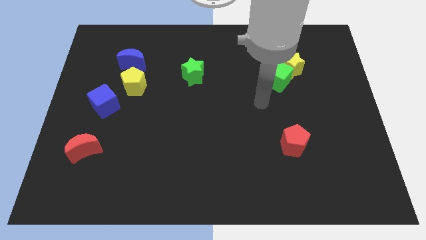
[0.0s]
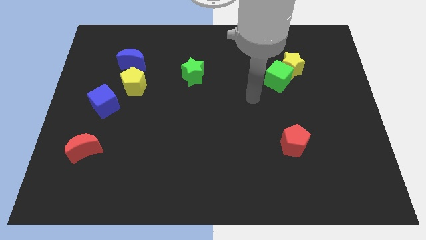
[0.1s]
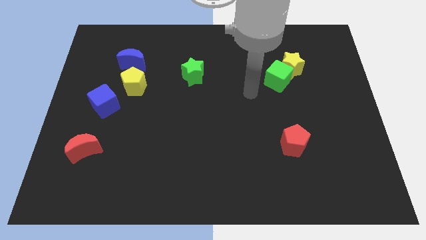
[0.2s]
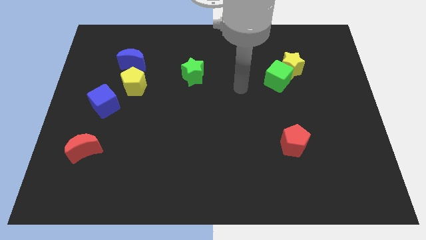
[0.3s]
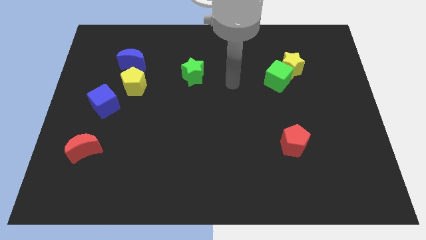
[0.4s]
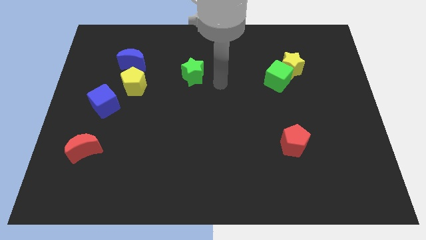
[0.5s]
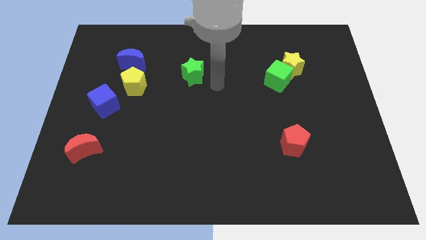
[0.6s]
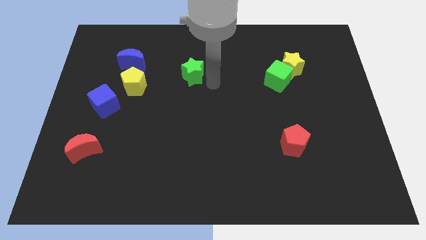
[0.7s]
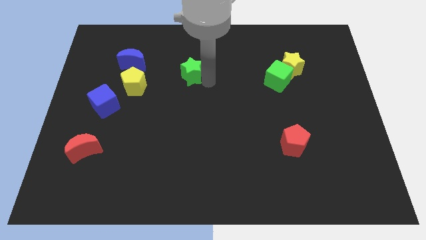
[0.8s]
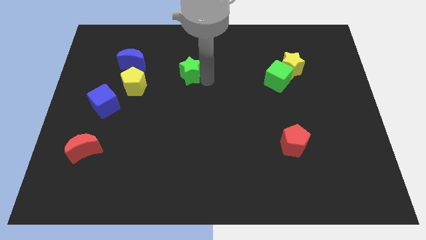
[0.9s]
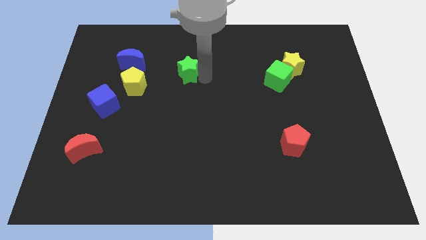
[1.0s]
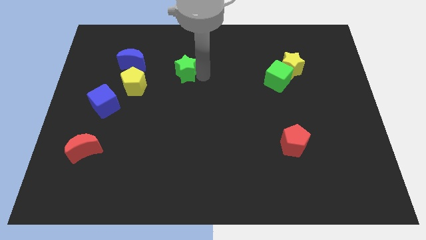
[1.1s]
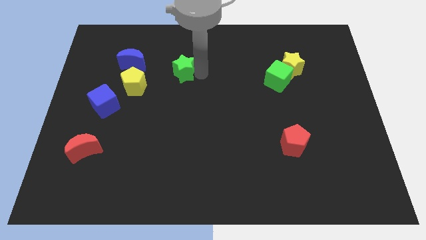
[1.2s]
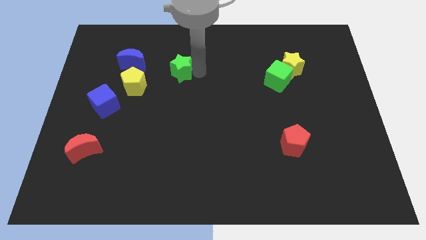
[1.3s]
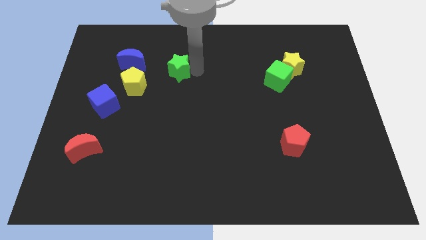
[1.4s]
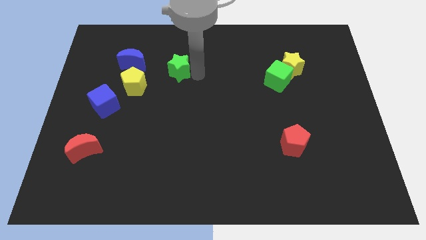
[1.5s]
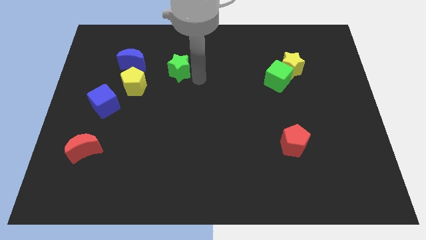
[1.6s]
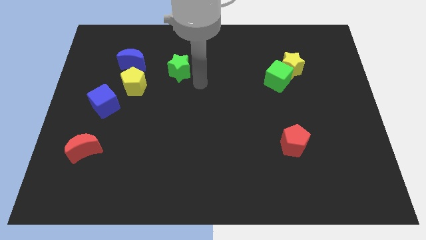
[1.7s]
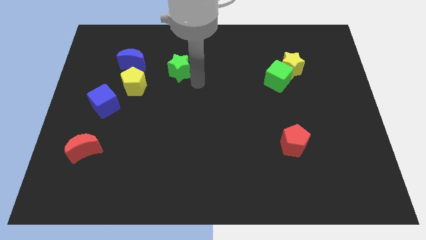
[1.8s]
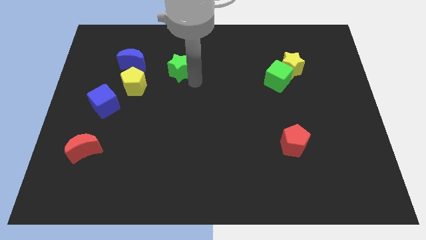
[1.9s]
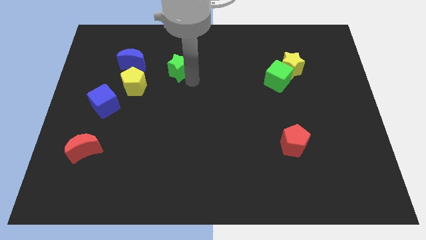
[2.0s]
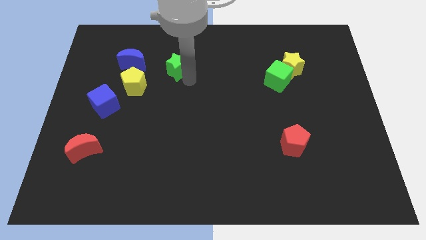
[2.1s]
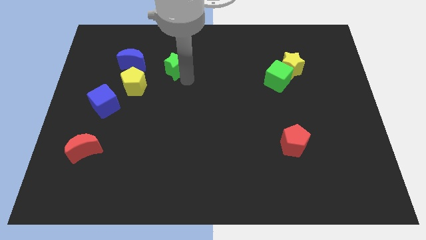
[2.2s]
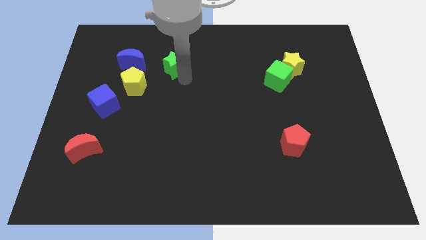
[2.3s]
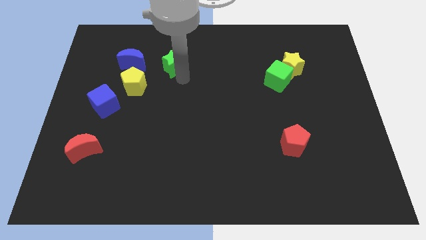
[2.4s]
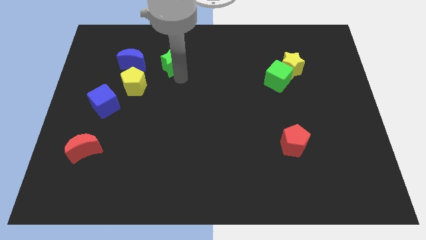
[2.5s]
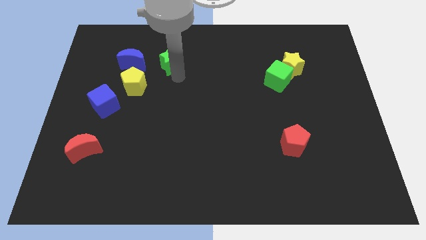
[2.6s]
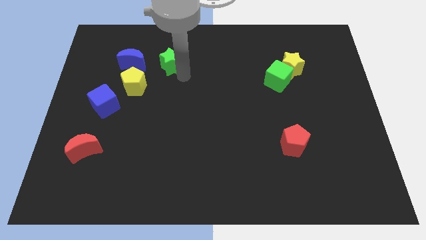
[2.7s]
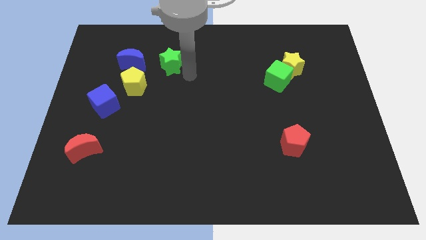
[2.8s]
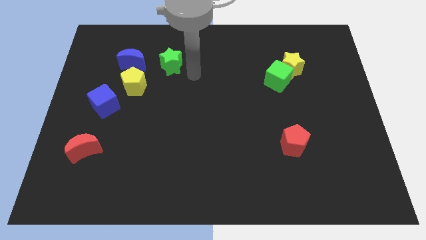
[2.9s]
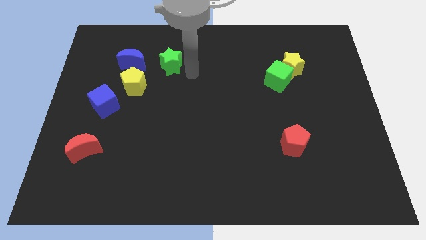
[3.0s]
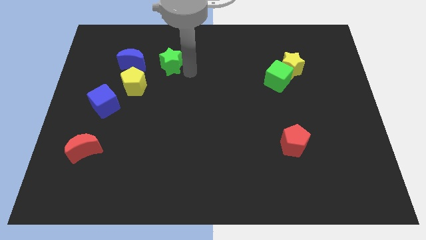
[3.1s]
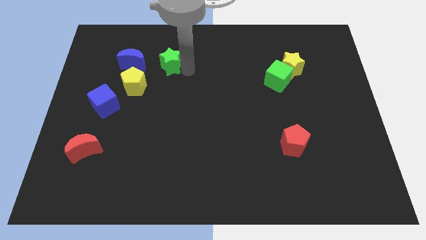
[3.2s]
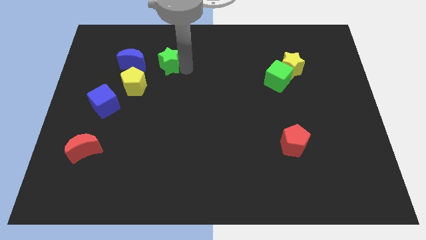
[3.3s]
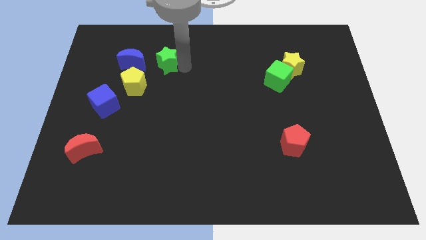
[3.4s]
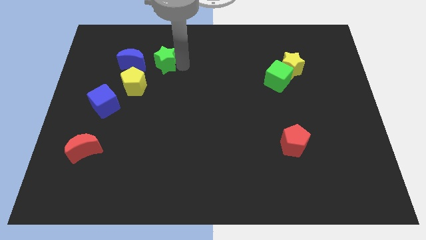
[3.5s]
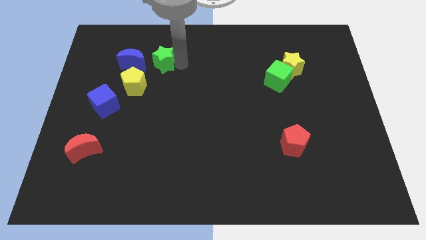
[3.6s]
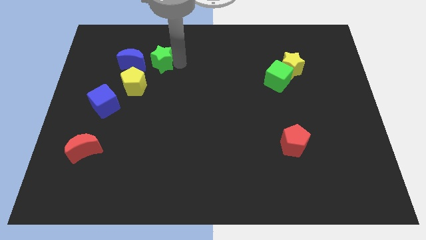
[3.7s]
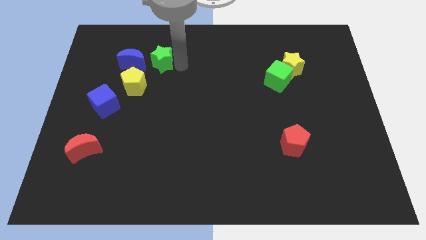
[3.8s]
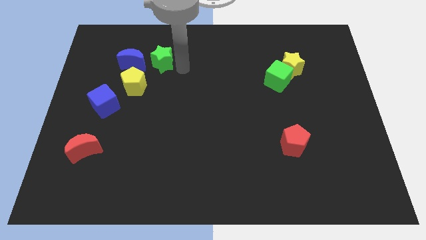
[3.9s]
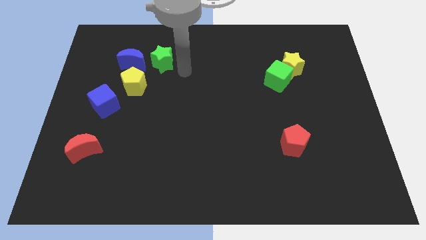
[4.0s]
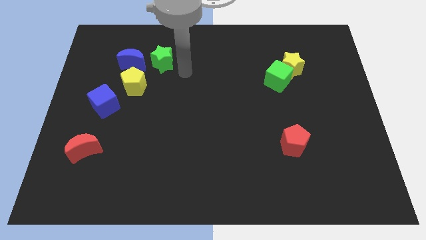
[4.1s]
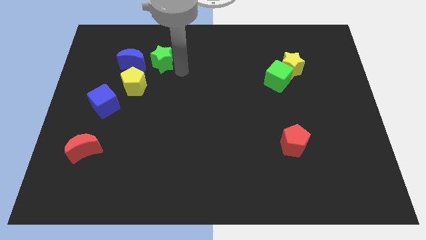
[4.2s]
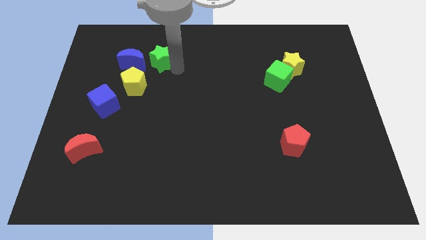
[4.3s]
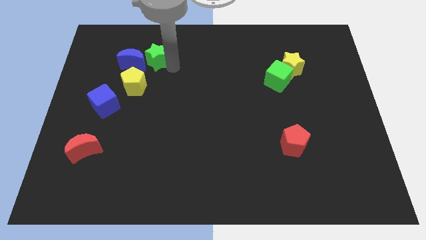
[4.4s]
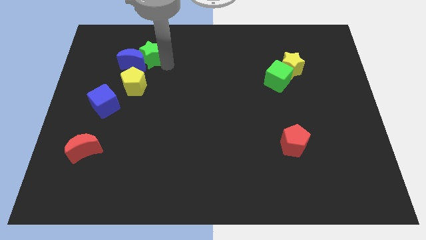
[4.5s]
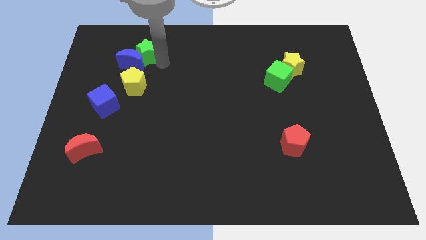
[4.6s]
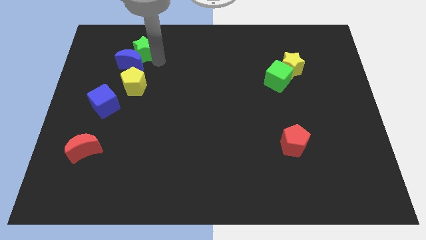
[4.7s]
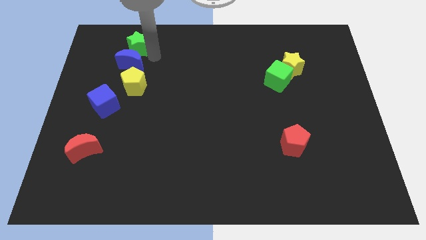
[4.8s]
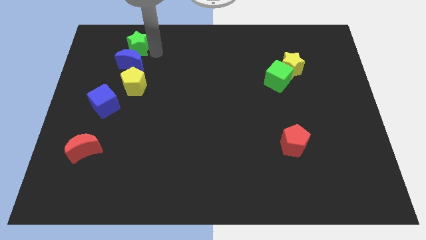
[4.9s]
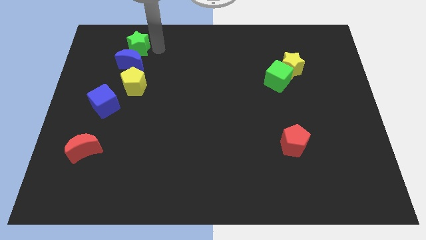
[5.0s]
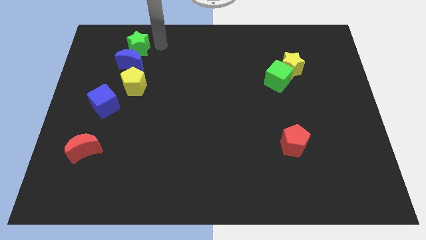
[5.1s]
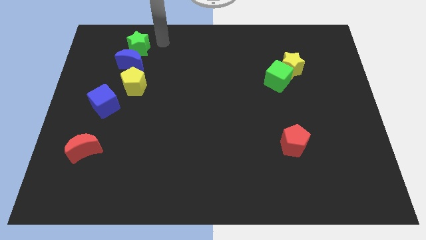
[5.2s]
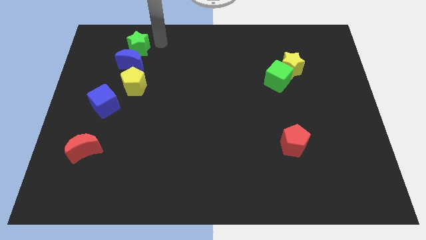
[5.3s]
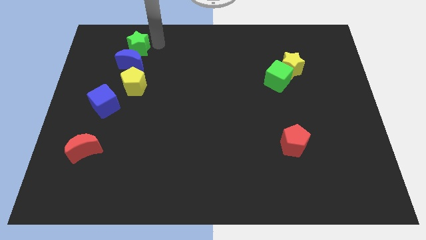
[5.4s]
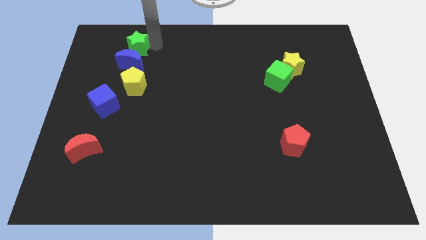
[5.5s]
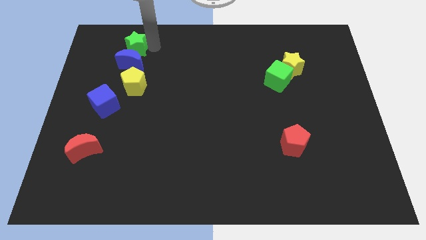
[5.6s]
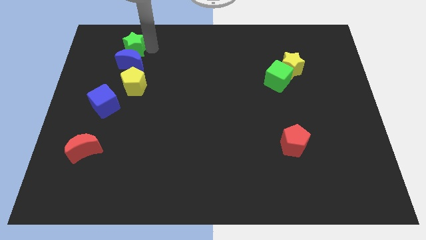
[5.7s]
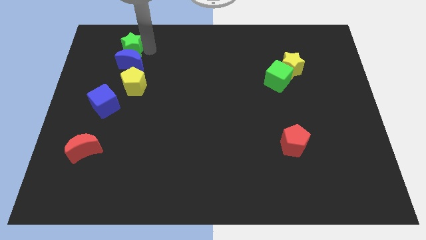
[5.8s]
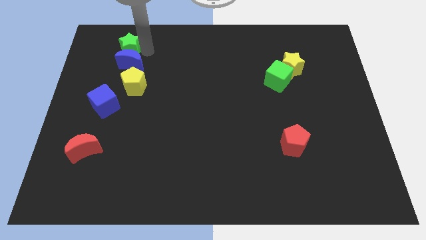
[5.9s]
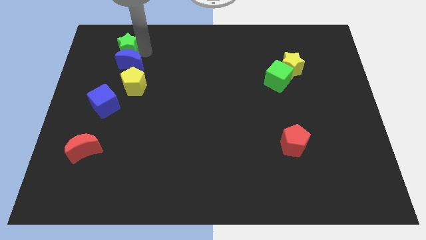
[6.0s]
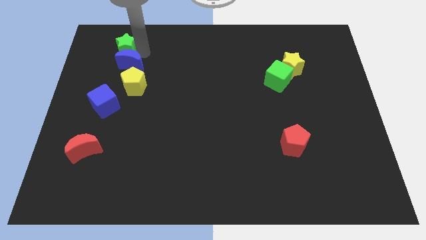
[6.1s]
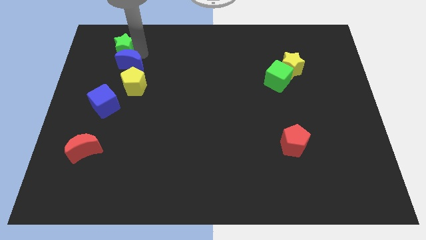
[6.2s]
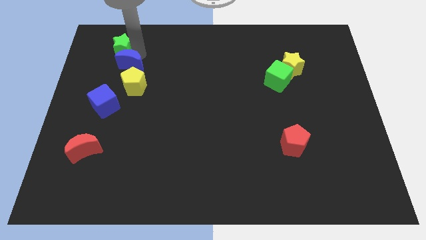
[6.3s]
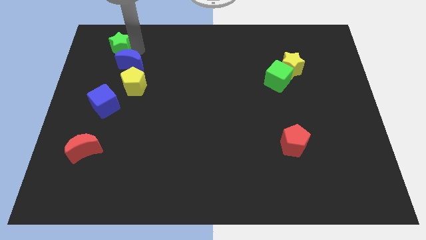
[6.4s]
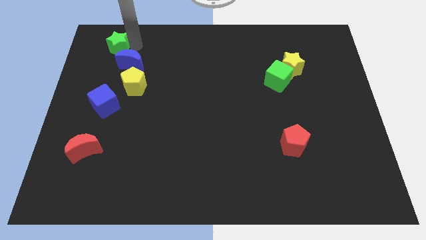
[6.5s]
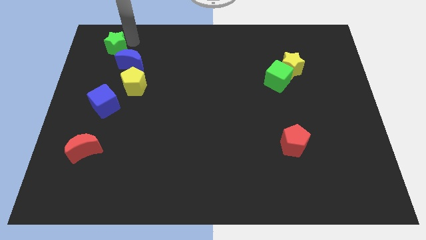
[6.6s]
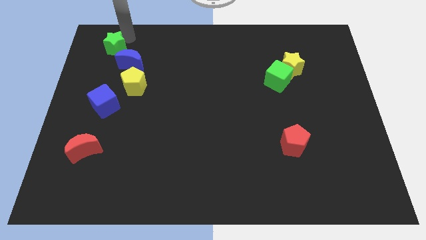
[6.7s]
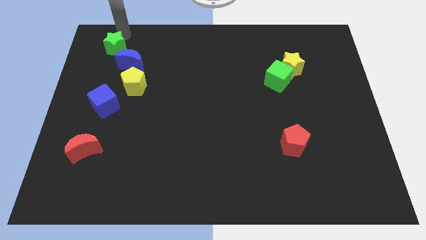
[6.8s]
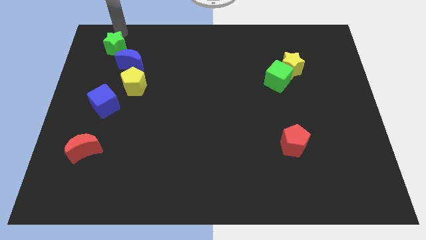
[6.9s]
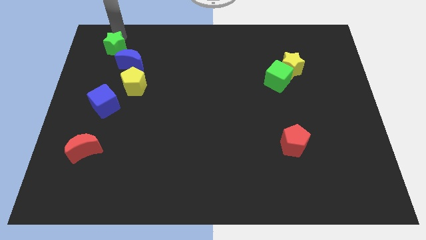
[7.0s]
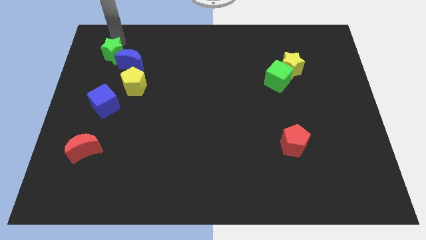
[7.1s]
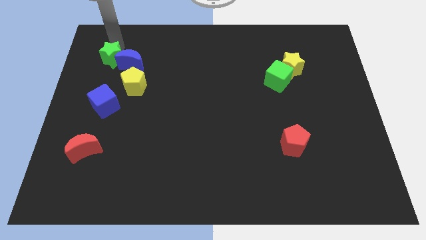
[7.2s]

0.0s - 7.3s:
put the green star to the top of the blue cube

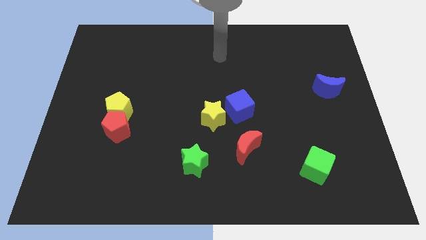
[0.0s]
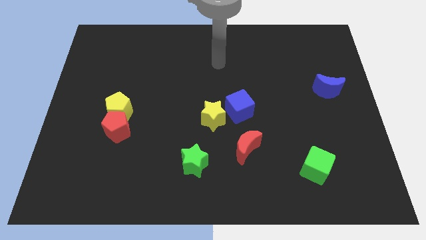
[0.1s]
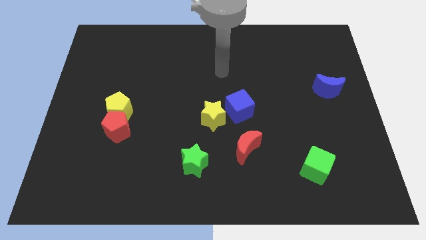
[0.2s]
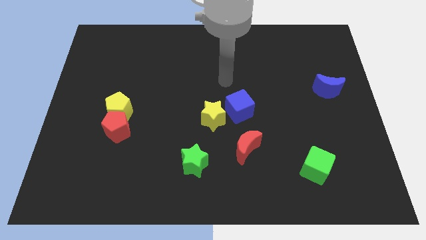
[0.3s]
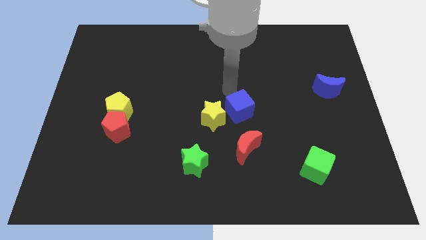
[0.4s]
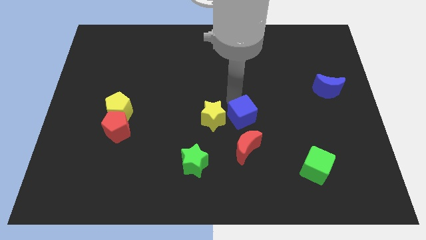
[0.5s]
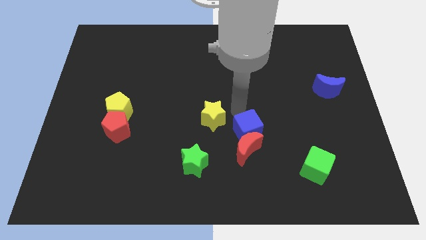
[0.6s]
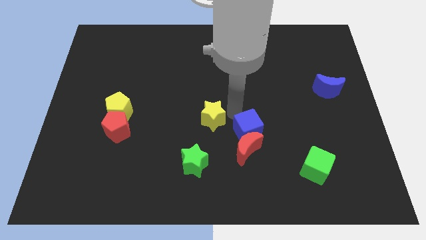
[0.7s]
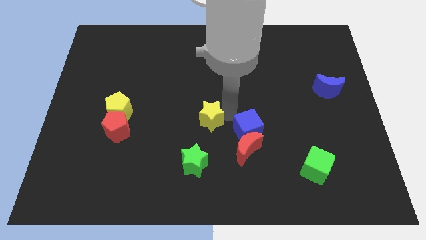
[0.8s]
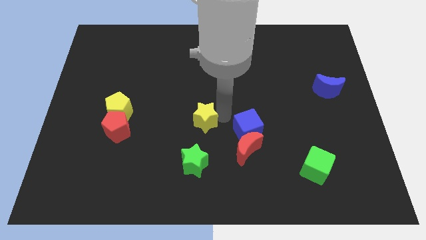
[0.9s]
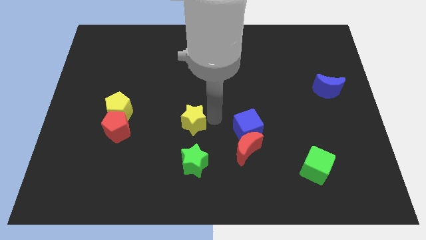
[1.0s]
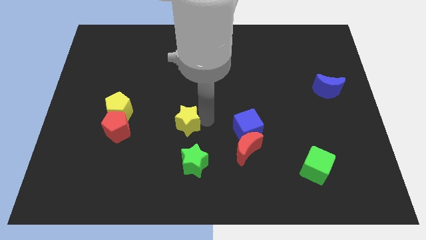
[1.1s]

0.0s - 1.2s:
move the yellow star to the right side of the red pentagon
